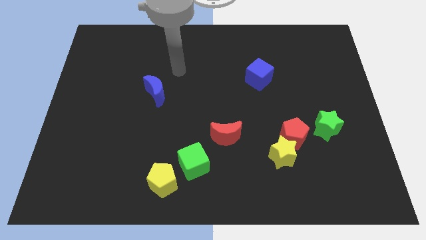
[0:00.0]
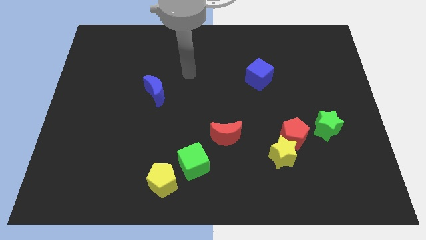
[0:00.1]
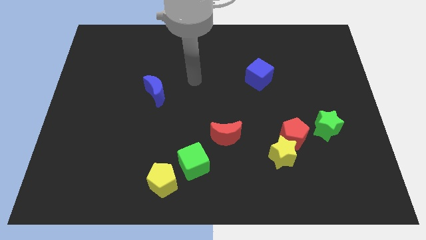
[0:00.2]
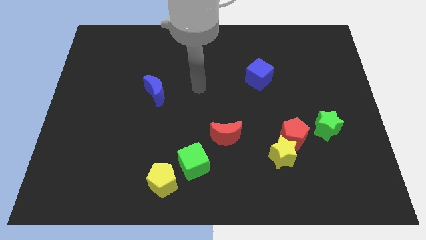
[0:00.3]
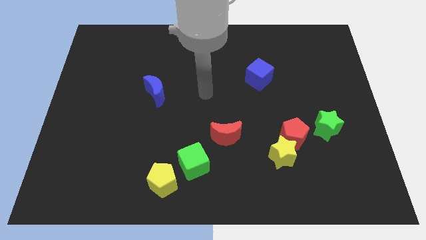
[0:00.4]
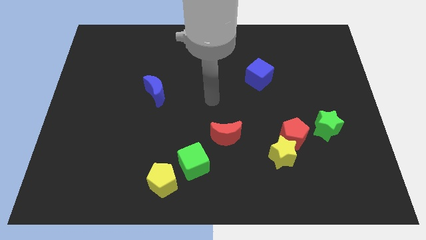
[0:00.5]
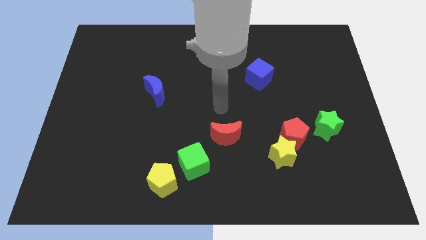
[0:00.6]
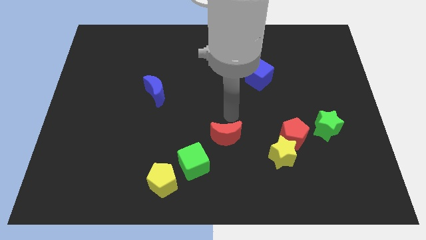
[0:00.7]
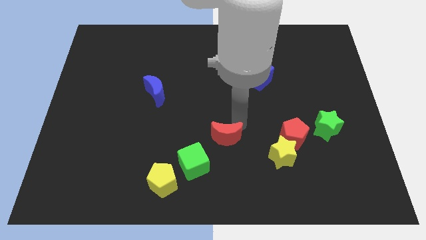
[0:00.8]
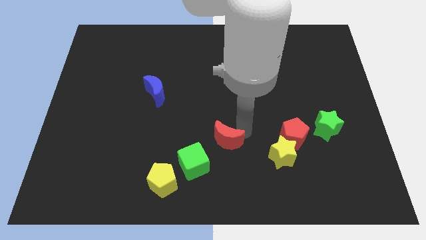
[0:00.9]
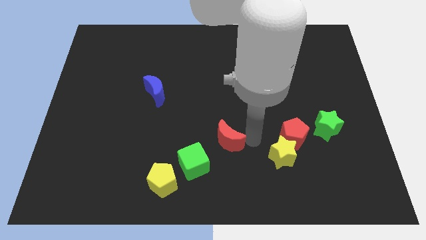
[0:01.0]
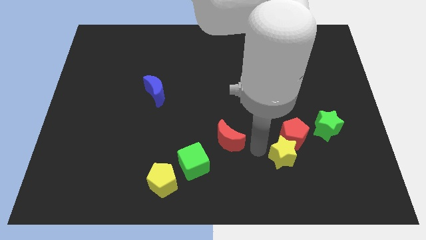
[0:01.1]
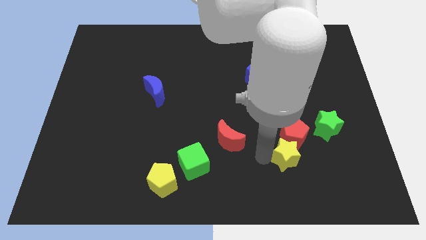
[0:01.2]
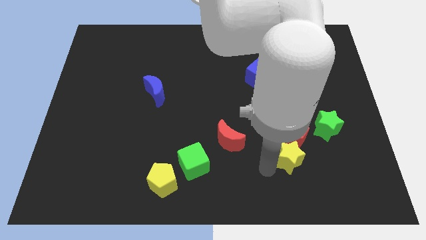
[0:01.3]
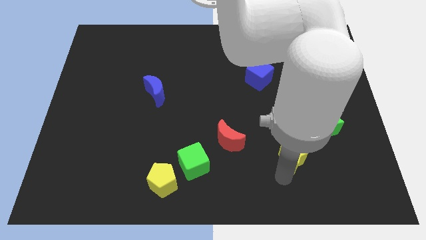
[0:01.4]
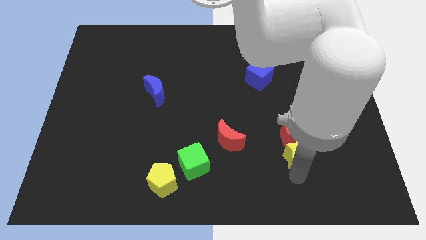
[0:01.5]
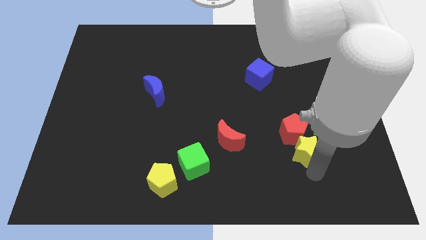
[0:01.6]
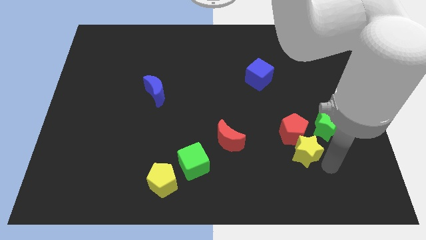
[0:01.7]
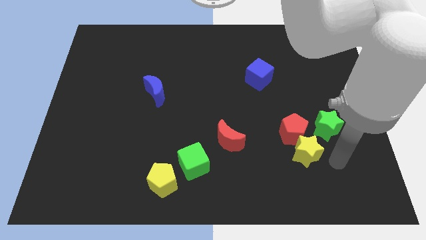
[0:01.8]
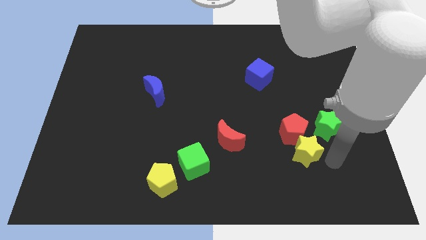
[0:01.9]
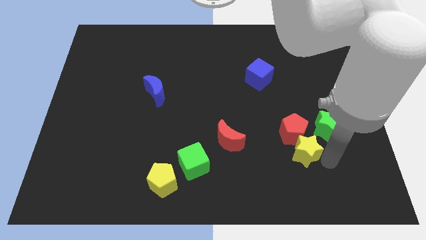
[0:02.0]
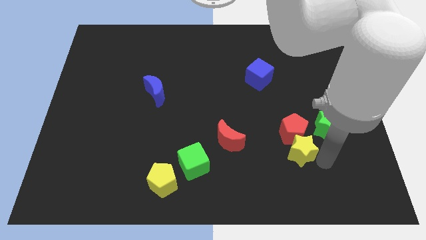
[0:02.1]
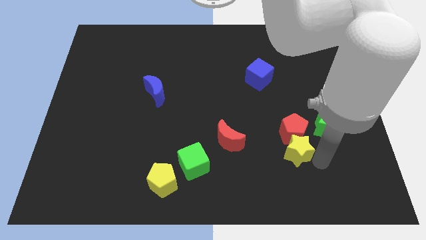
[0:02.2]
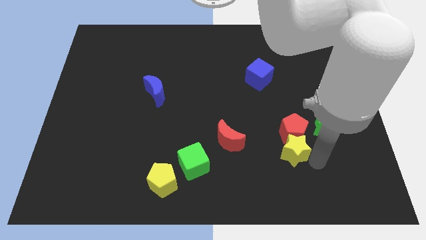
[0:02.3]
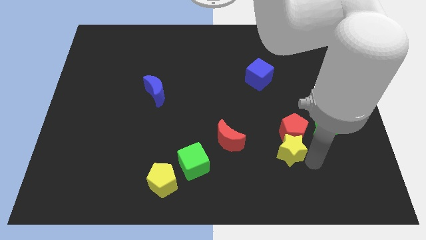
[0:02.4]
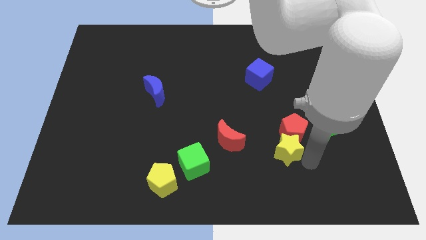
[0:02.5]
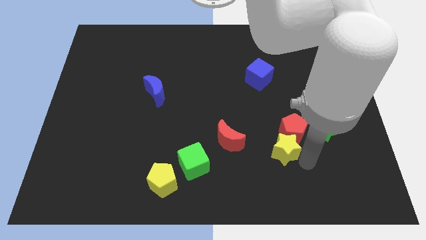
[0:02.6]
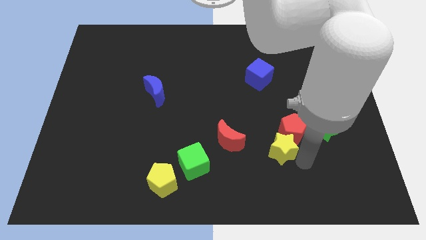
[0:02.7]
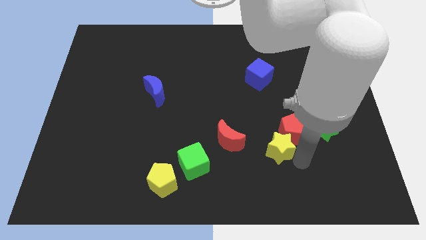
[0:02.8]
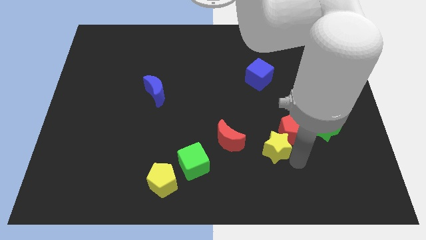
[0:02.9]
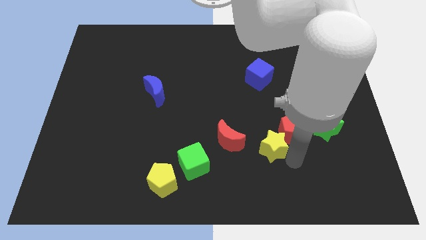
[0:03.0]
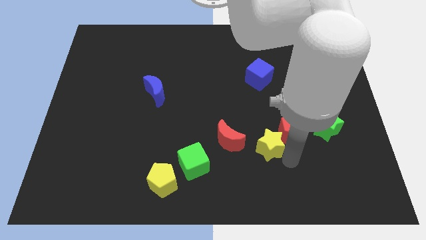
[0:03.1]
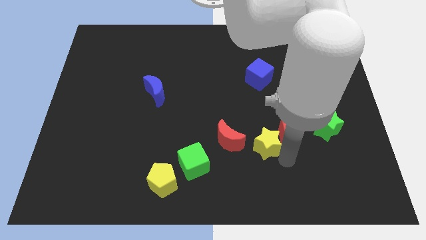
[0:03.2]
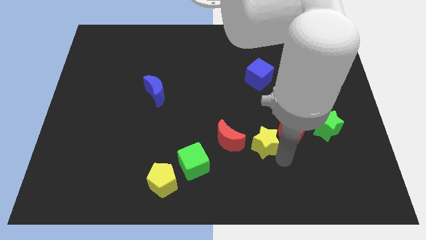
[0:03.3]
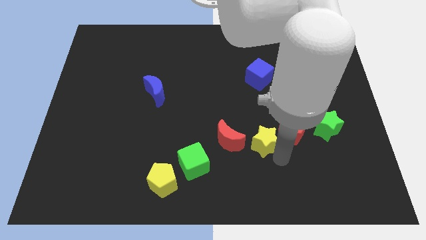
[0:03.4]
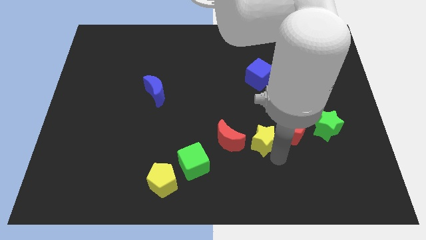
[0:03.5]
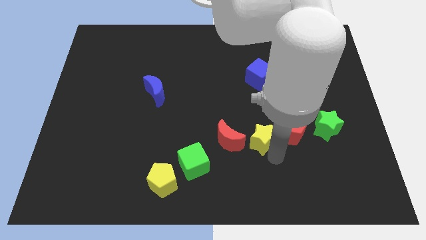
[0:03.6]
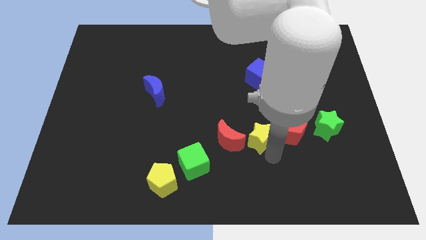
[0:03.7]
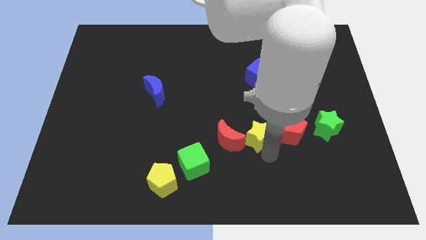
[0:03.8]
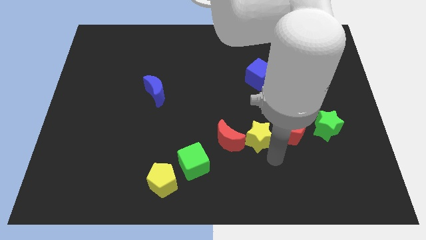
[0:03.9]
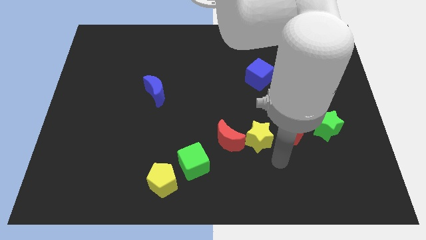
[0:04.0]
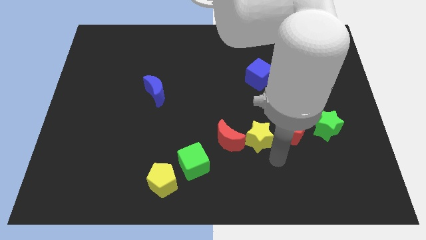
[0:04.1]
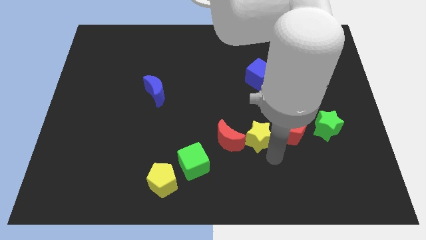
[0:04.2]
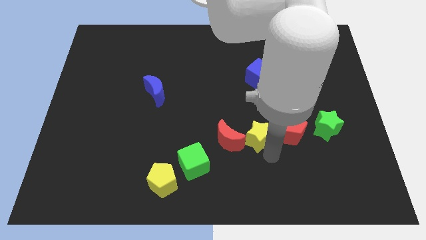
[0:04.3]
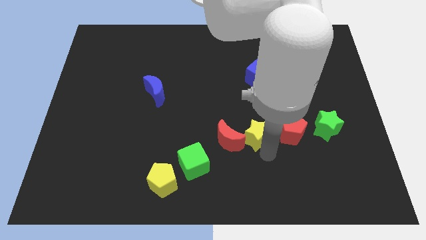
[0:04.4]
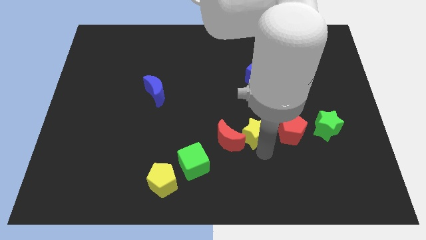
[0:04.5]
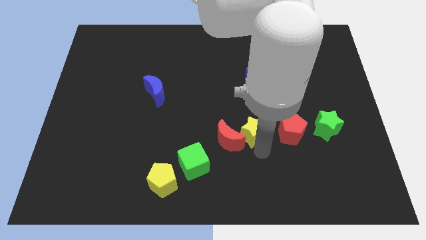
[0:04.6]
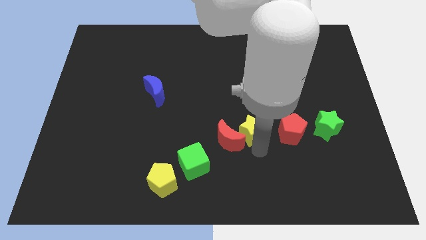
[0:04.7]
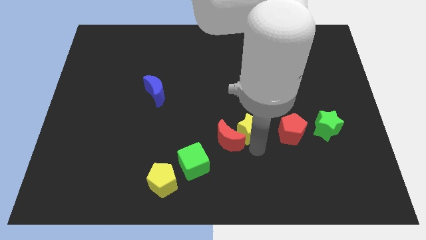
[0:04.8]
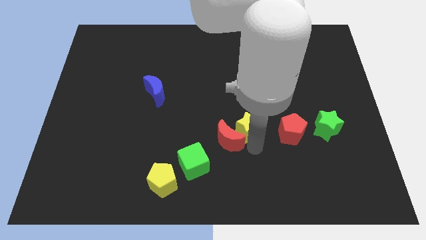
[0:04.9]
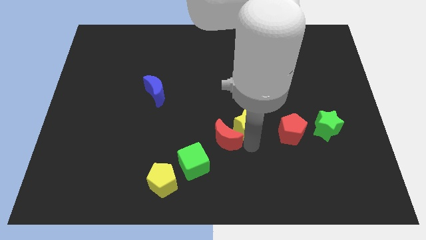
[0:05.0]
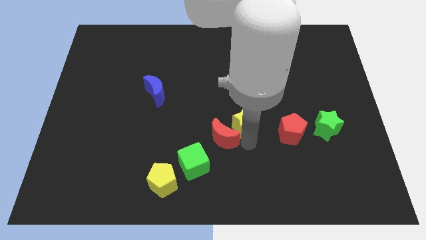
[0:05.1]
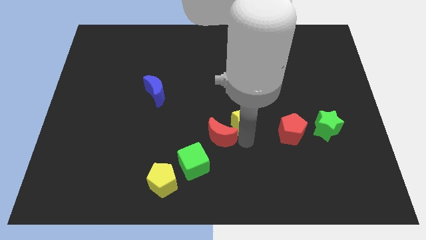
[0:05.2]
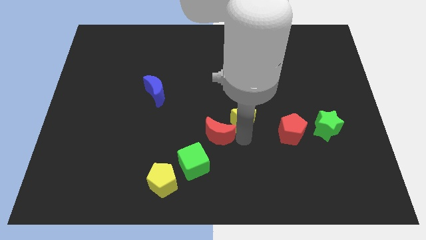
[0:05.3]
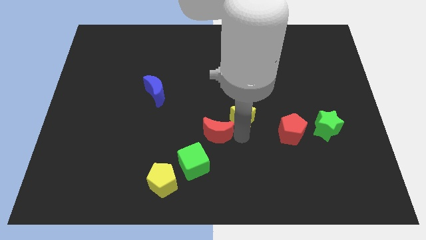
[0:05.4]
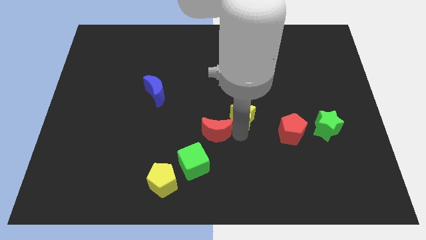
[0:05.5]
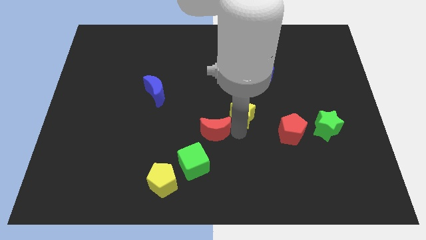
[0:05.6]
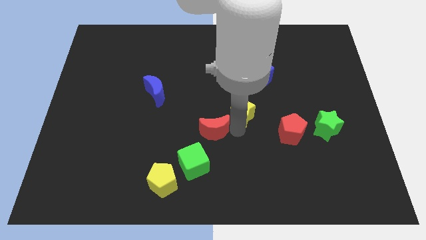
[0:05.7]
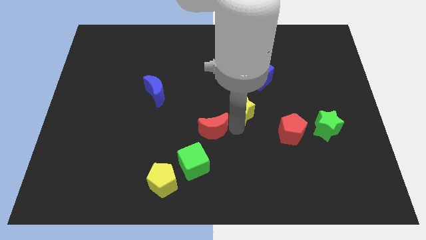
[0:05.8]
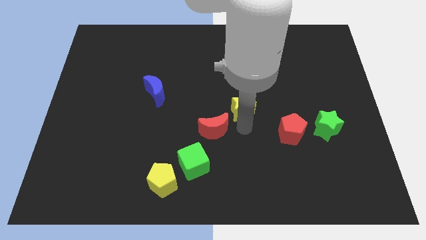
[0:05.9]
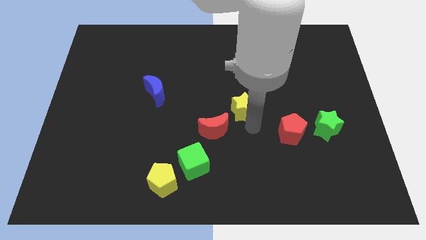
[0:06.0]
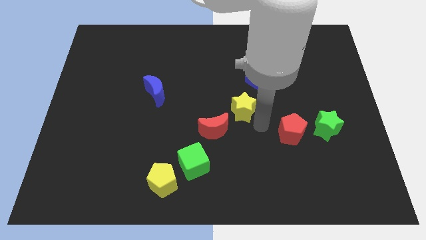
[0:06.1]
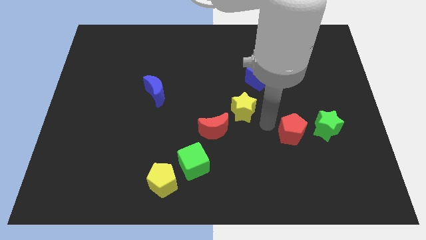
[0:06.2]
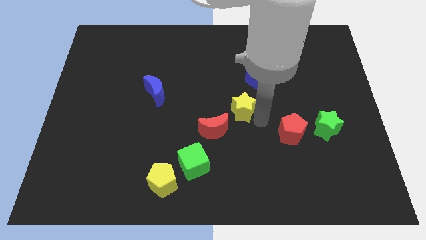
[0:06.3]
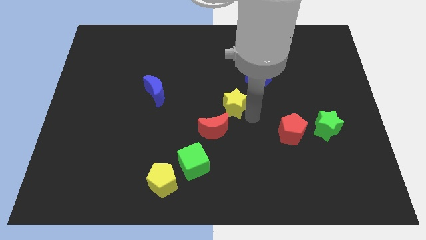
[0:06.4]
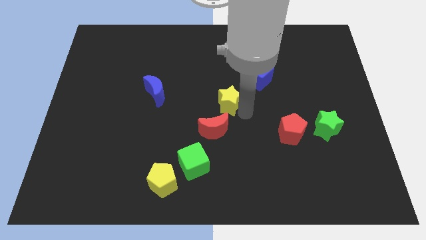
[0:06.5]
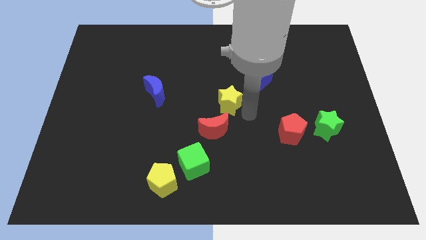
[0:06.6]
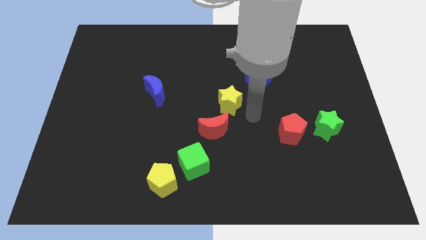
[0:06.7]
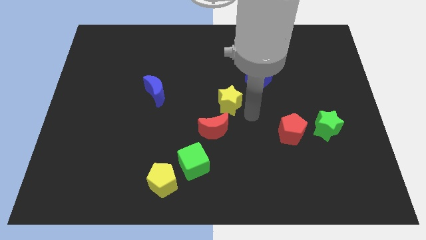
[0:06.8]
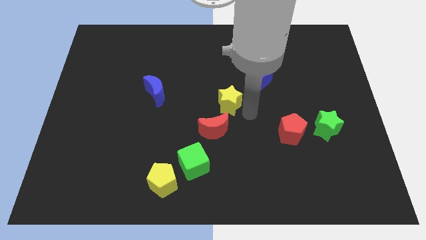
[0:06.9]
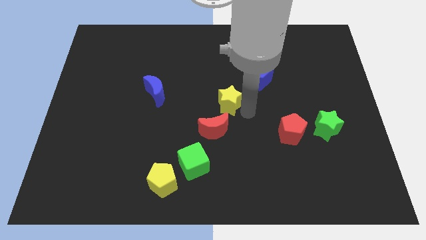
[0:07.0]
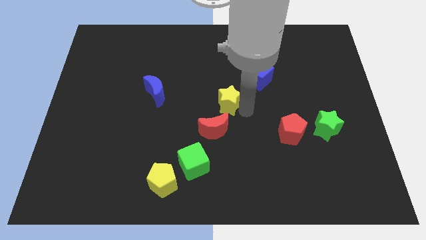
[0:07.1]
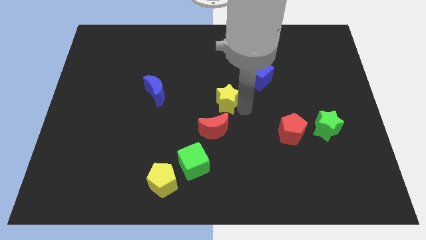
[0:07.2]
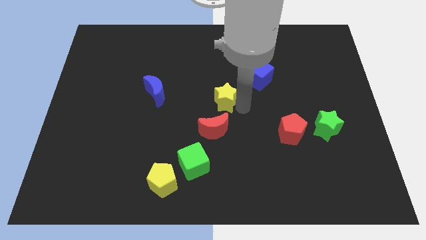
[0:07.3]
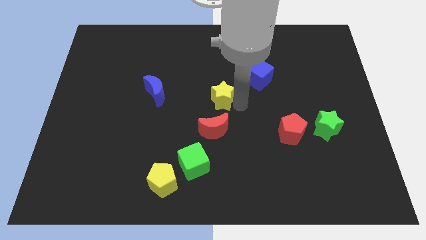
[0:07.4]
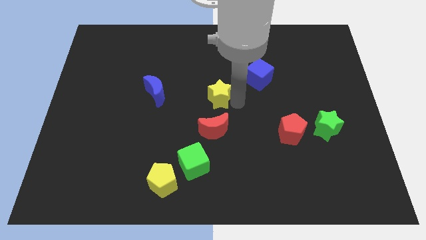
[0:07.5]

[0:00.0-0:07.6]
push the yellow star up and to the left

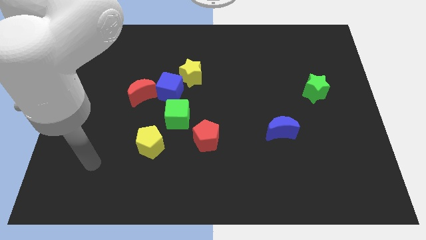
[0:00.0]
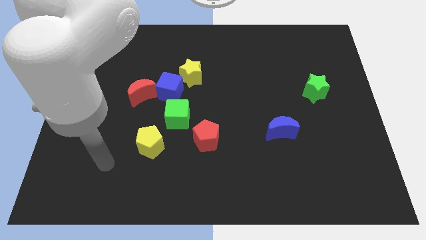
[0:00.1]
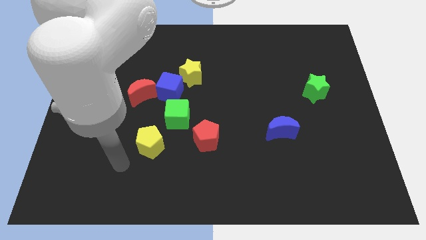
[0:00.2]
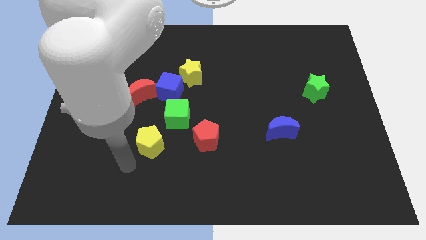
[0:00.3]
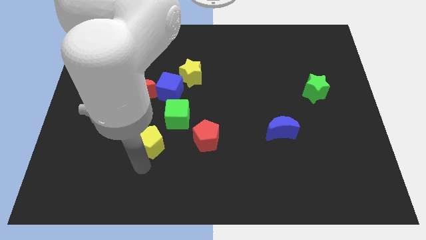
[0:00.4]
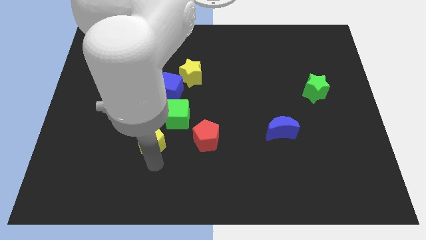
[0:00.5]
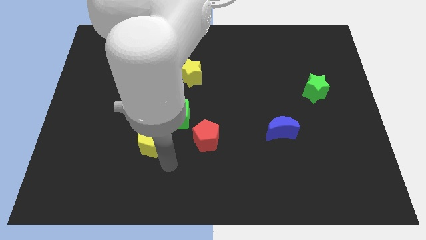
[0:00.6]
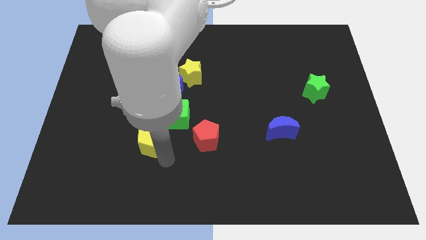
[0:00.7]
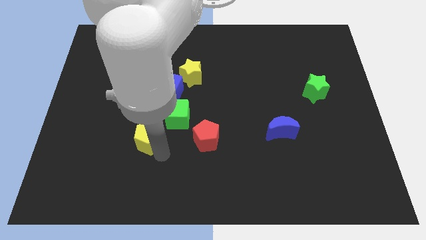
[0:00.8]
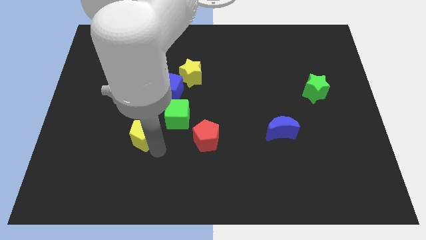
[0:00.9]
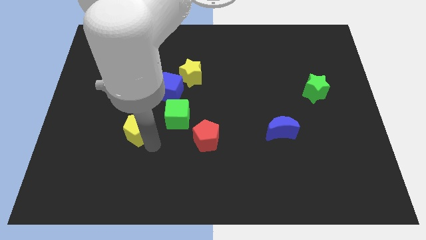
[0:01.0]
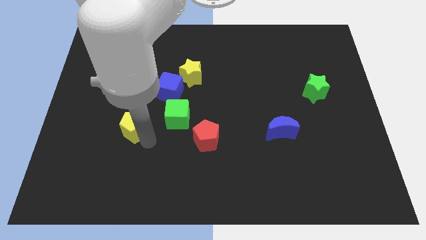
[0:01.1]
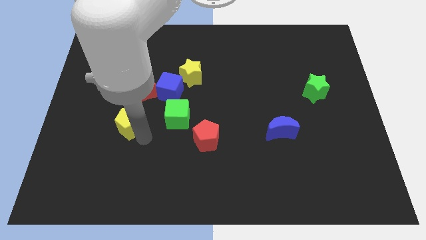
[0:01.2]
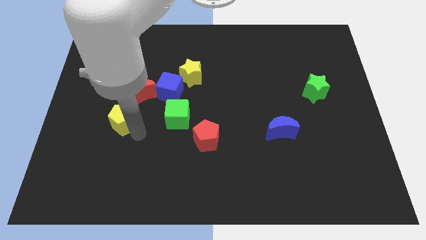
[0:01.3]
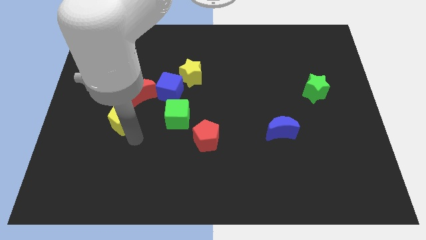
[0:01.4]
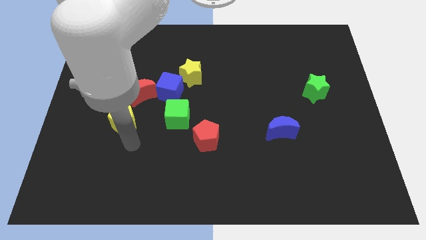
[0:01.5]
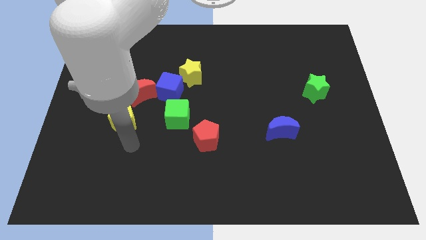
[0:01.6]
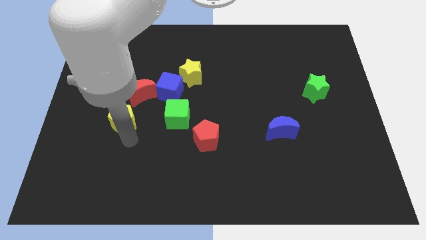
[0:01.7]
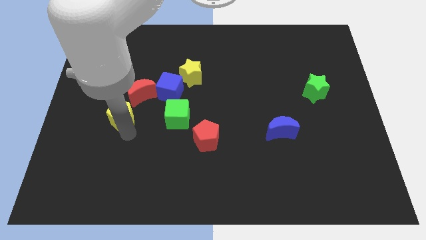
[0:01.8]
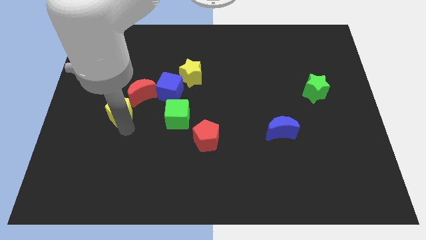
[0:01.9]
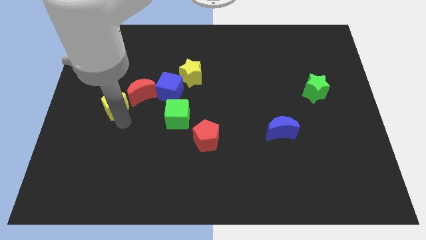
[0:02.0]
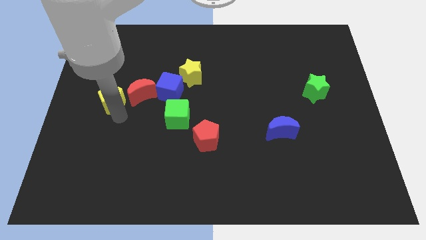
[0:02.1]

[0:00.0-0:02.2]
push the yellow pentagon slightly up
